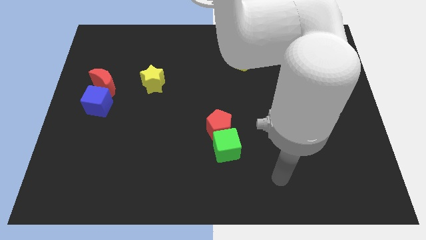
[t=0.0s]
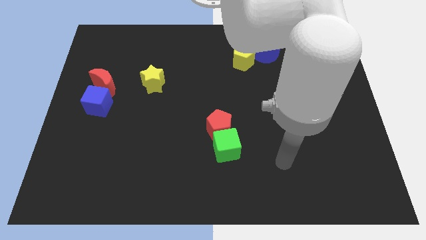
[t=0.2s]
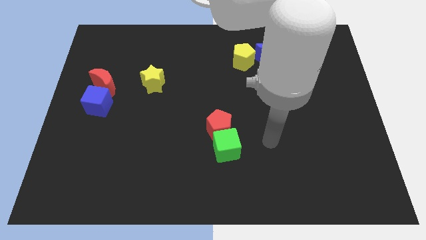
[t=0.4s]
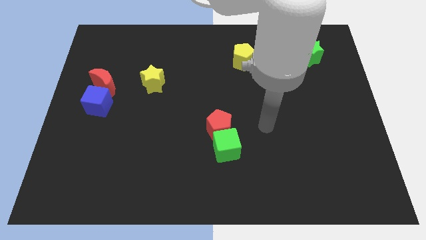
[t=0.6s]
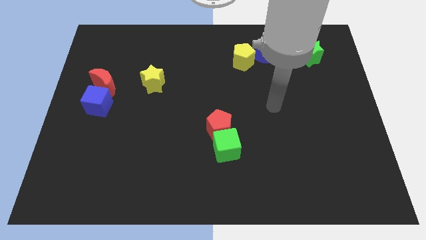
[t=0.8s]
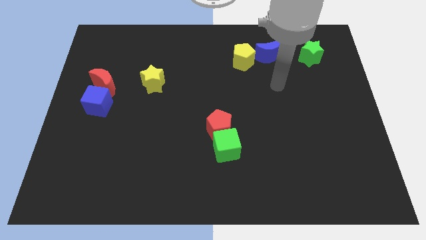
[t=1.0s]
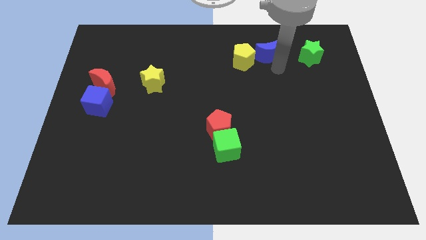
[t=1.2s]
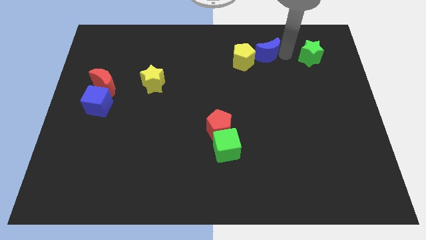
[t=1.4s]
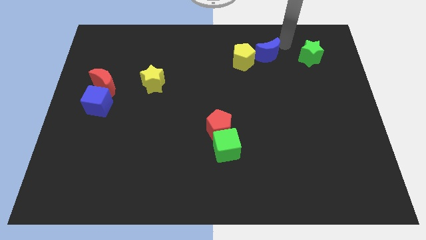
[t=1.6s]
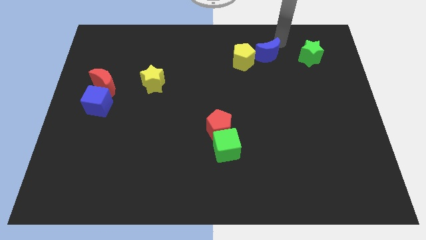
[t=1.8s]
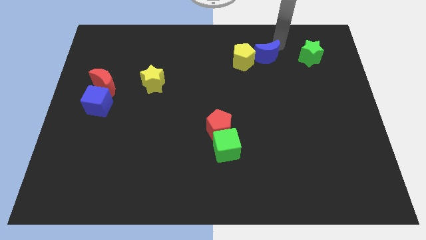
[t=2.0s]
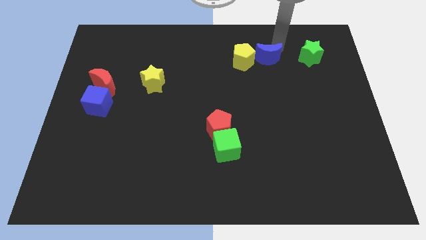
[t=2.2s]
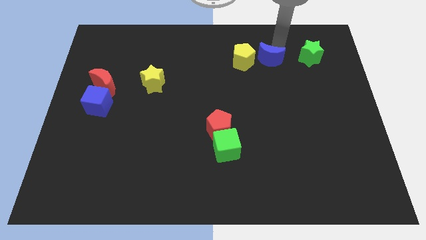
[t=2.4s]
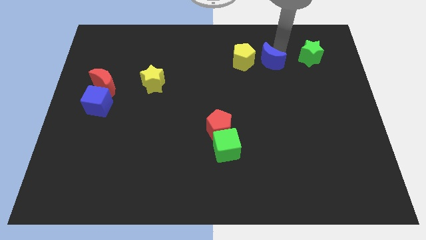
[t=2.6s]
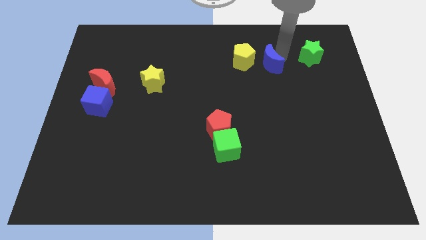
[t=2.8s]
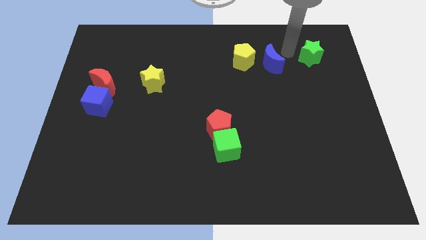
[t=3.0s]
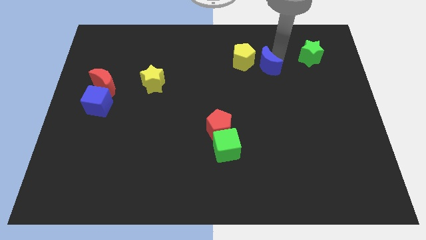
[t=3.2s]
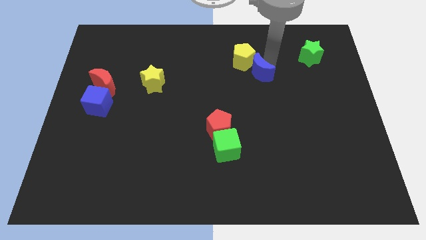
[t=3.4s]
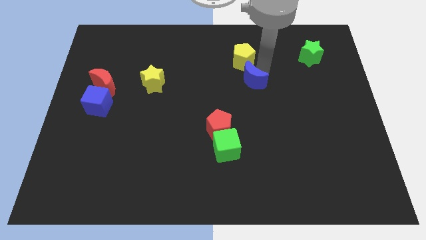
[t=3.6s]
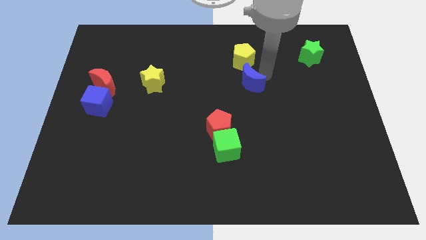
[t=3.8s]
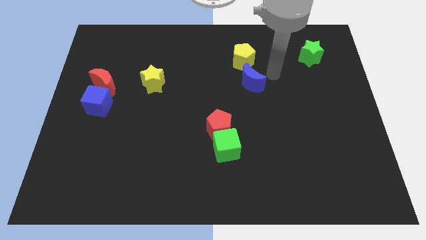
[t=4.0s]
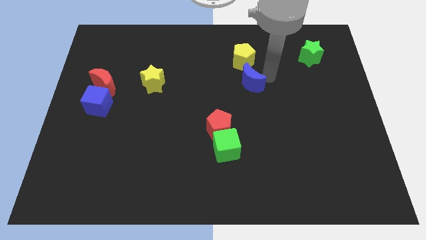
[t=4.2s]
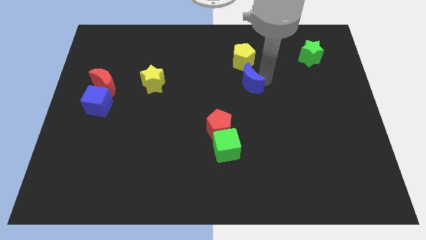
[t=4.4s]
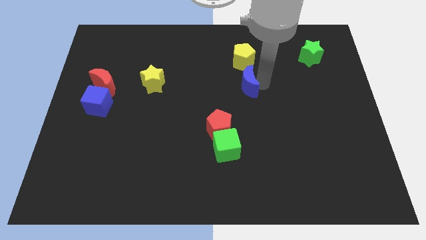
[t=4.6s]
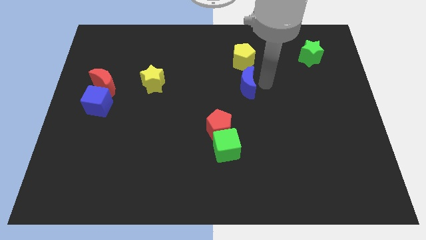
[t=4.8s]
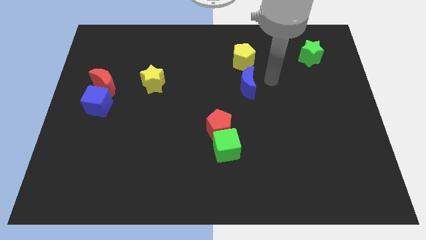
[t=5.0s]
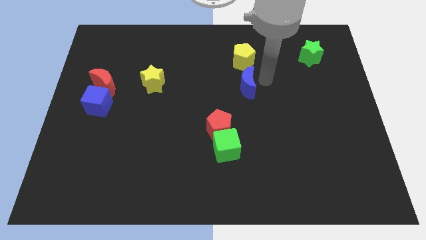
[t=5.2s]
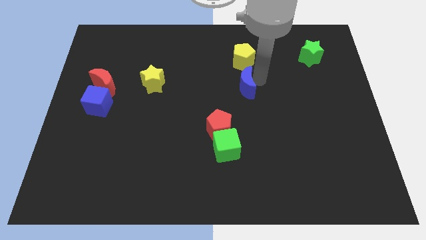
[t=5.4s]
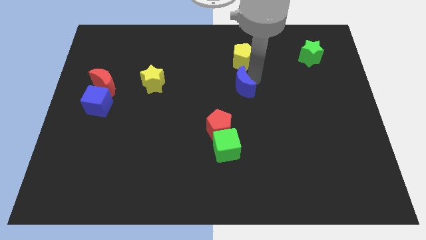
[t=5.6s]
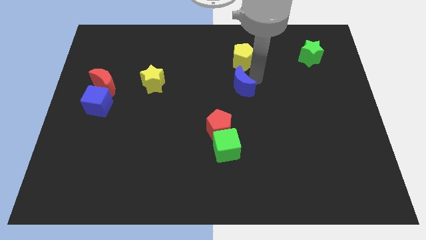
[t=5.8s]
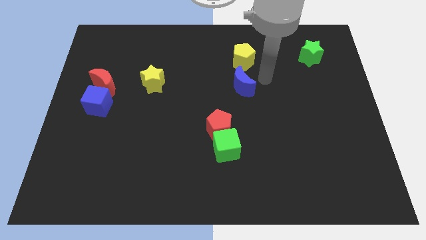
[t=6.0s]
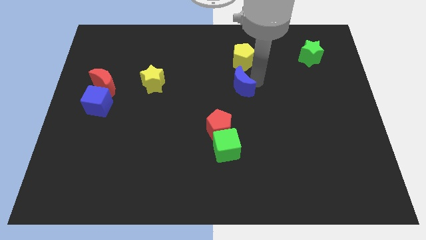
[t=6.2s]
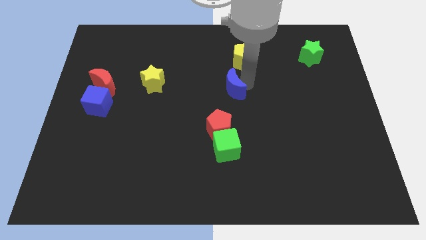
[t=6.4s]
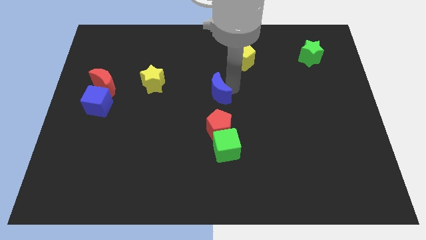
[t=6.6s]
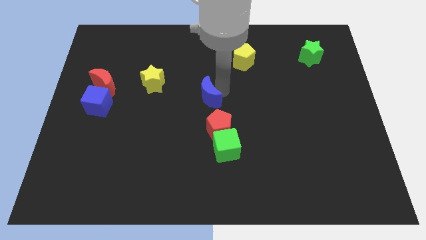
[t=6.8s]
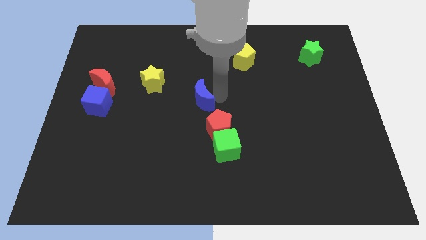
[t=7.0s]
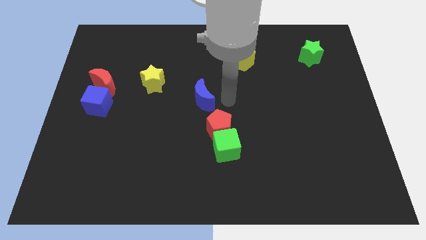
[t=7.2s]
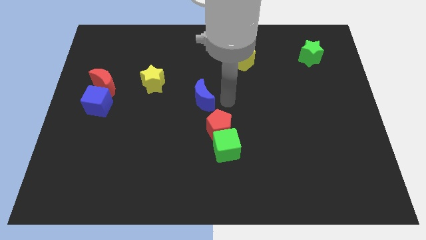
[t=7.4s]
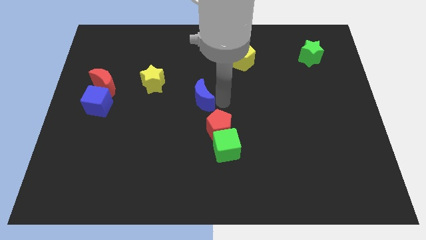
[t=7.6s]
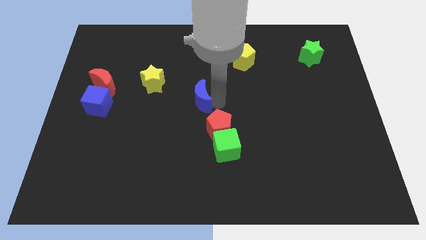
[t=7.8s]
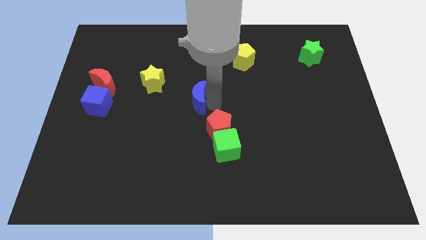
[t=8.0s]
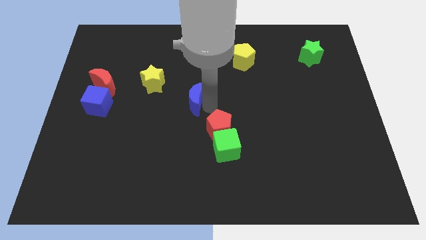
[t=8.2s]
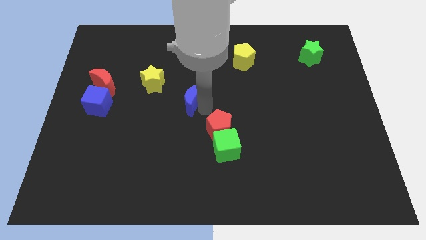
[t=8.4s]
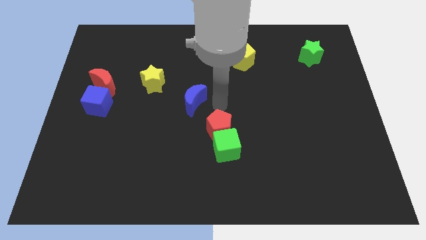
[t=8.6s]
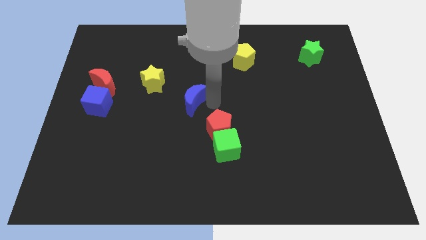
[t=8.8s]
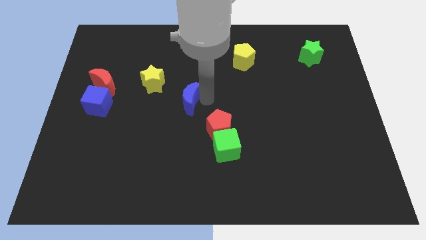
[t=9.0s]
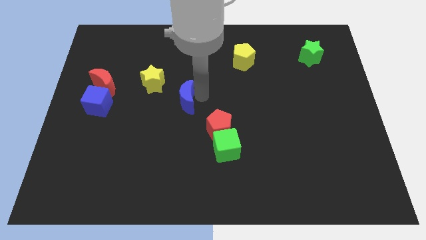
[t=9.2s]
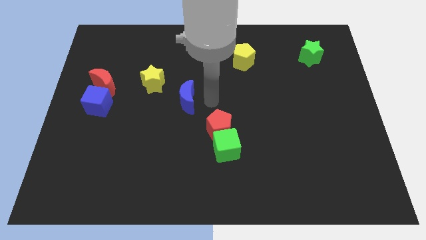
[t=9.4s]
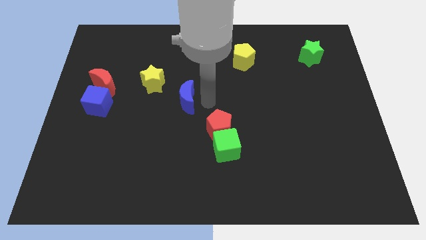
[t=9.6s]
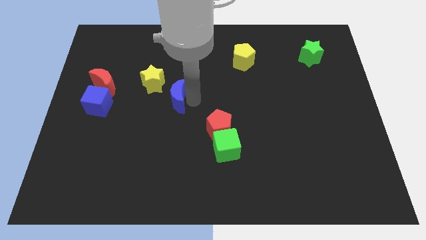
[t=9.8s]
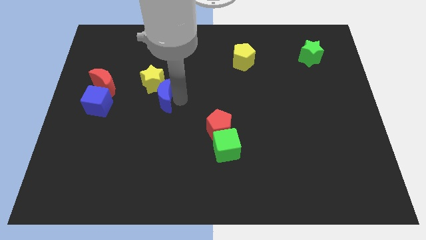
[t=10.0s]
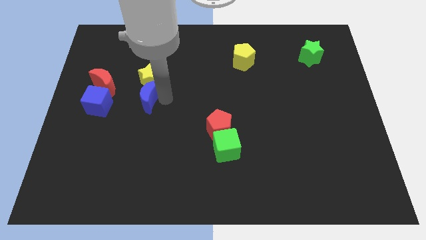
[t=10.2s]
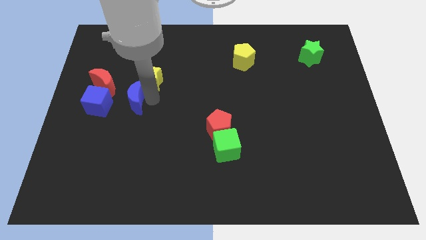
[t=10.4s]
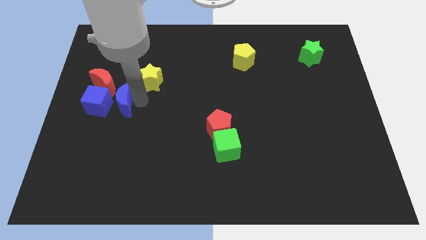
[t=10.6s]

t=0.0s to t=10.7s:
push the blue moon to the blue cube

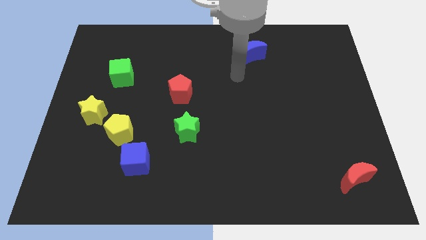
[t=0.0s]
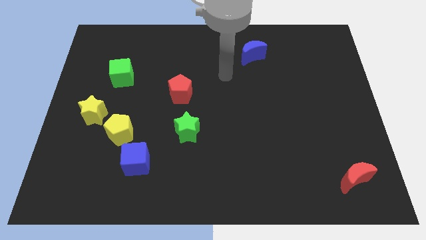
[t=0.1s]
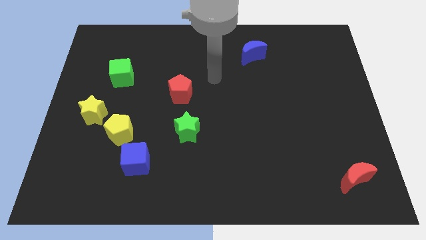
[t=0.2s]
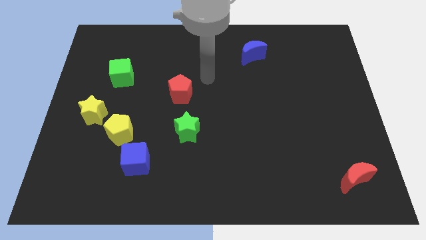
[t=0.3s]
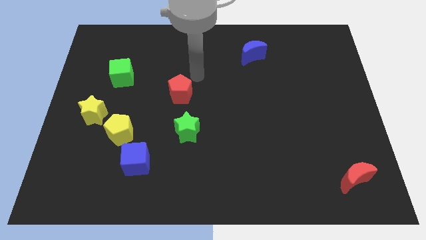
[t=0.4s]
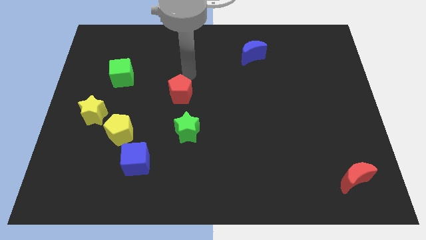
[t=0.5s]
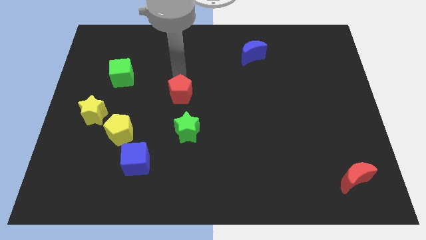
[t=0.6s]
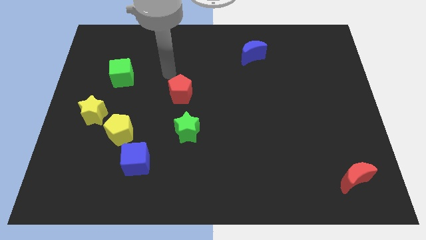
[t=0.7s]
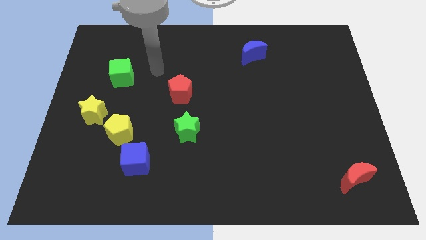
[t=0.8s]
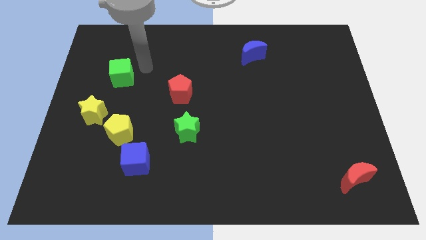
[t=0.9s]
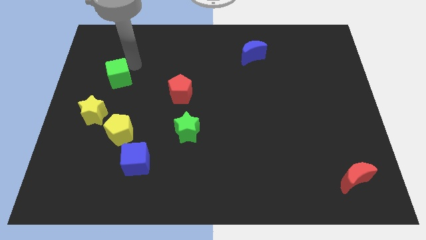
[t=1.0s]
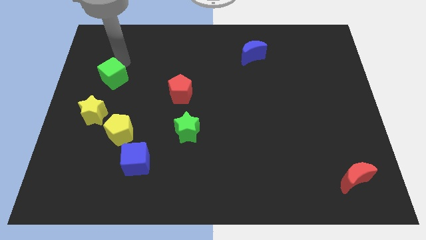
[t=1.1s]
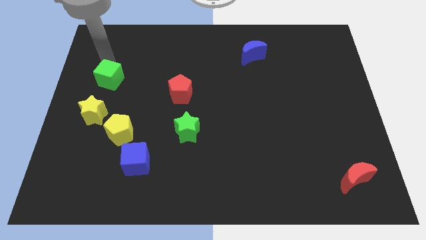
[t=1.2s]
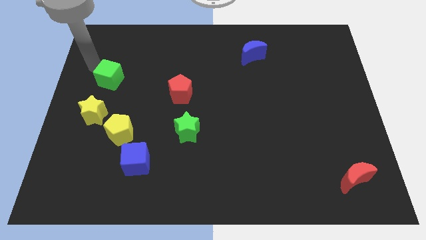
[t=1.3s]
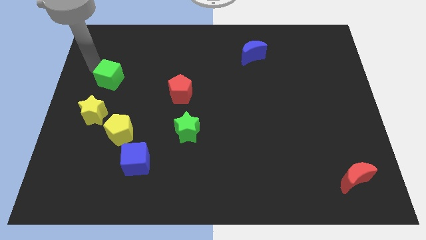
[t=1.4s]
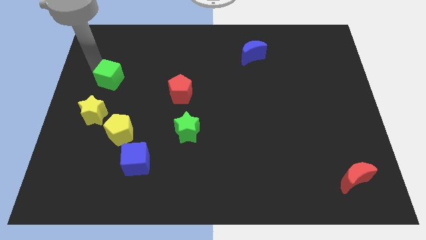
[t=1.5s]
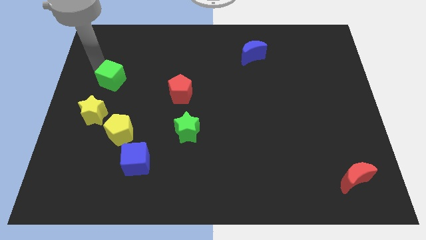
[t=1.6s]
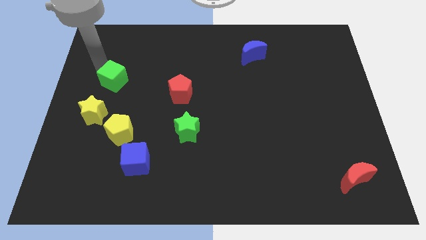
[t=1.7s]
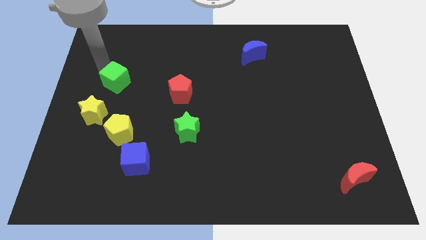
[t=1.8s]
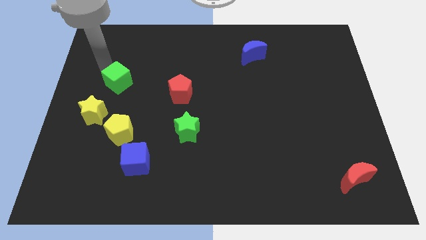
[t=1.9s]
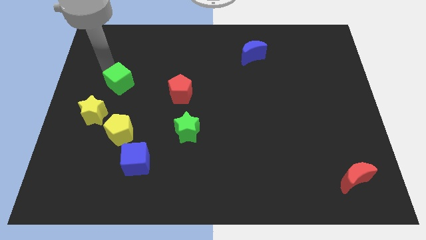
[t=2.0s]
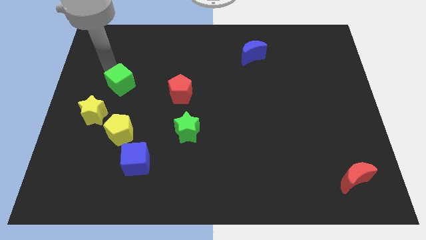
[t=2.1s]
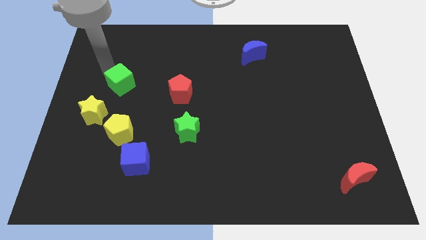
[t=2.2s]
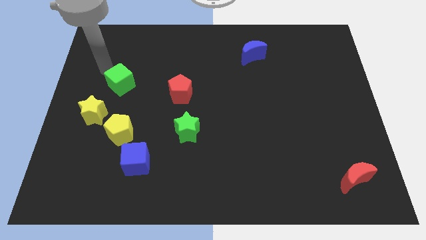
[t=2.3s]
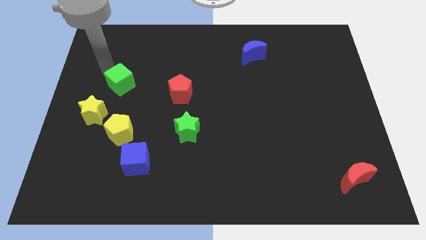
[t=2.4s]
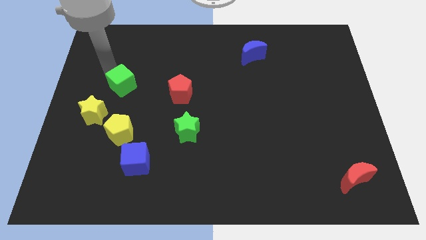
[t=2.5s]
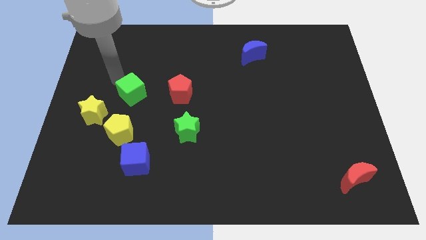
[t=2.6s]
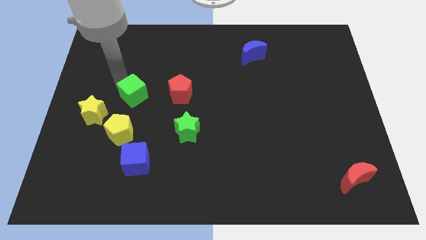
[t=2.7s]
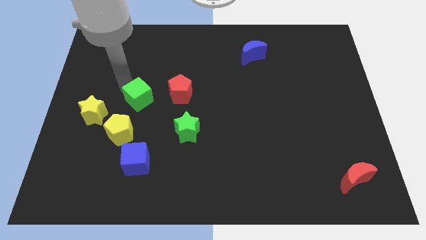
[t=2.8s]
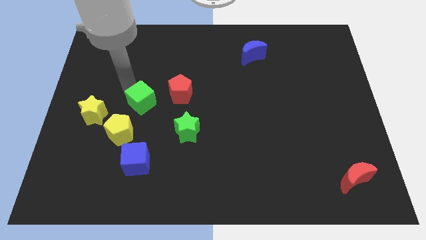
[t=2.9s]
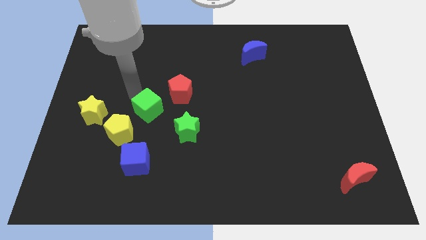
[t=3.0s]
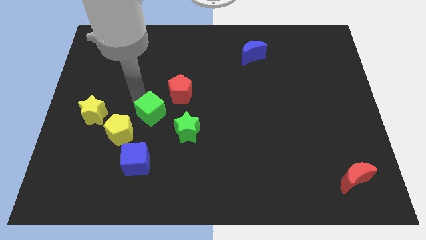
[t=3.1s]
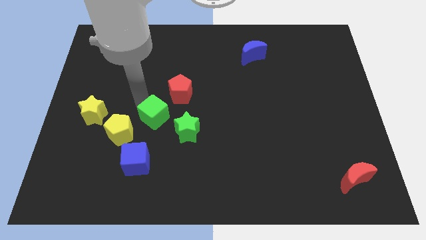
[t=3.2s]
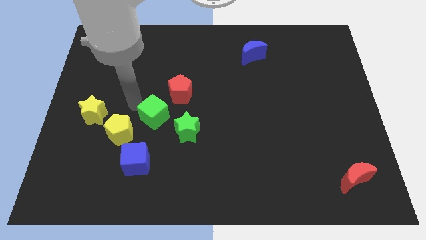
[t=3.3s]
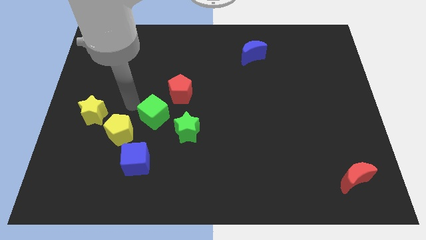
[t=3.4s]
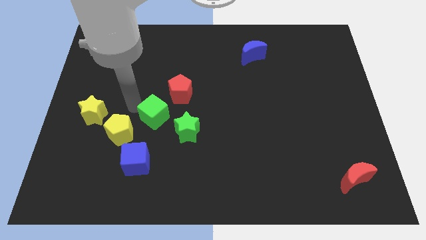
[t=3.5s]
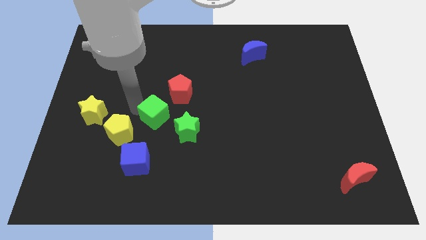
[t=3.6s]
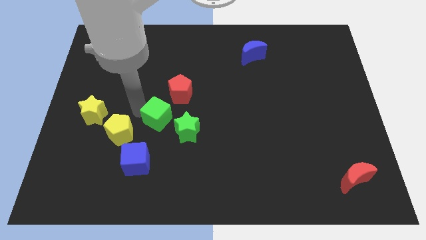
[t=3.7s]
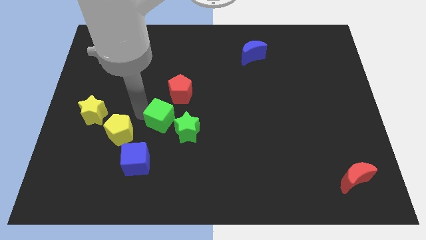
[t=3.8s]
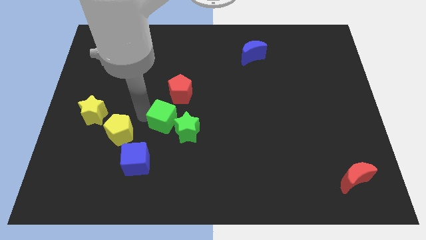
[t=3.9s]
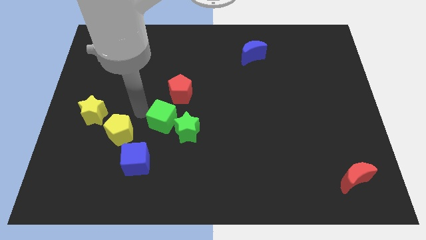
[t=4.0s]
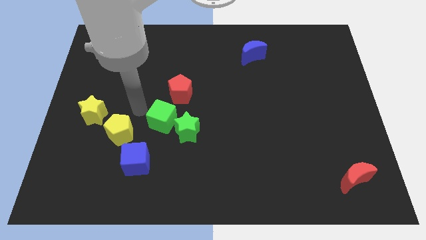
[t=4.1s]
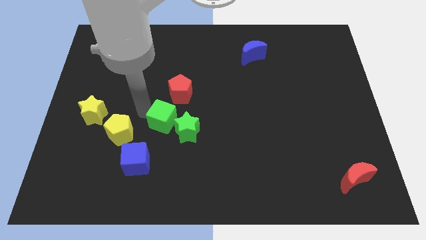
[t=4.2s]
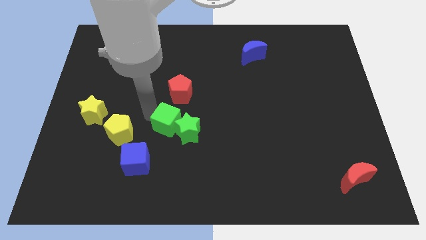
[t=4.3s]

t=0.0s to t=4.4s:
push the green cube next to the green star
